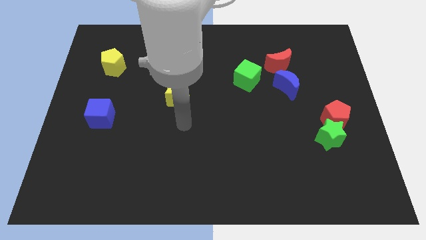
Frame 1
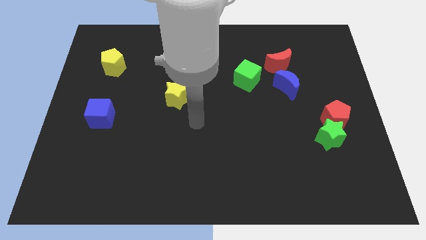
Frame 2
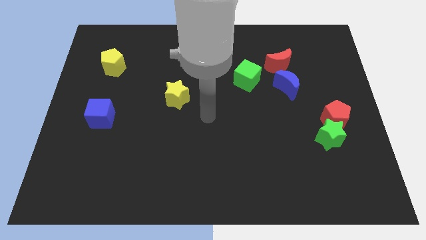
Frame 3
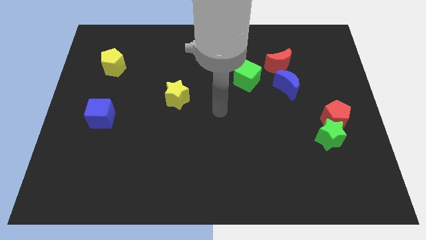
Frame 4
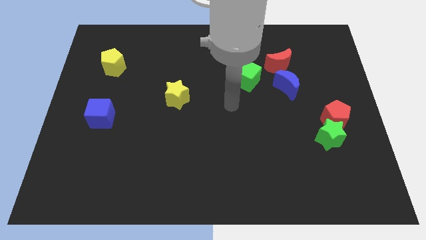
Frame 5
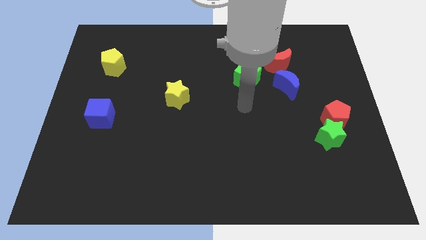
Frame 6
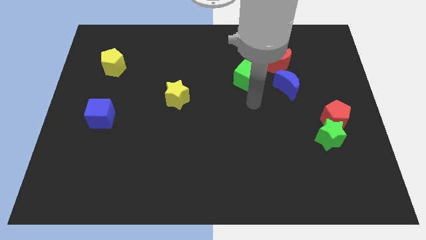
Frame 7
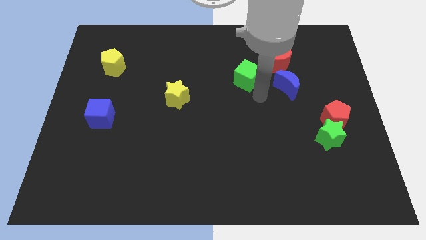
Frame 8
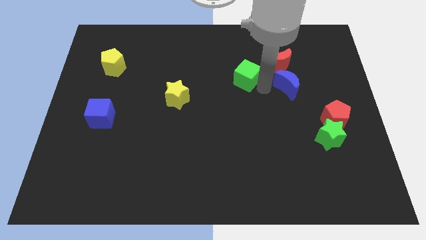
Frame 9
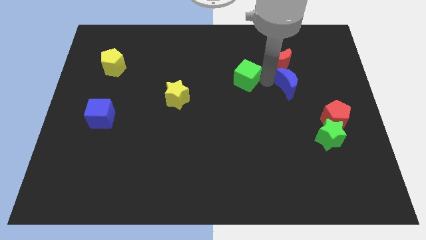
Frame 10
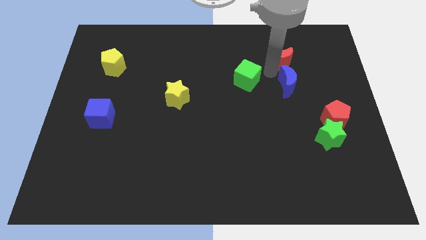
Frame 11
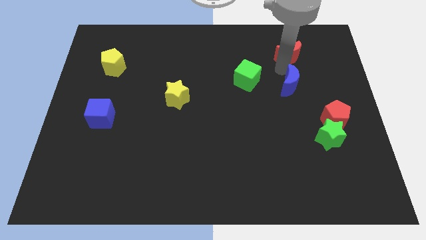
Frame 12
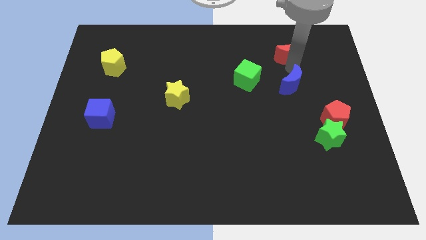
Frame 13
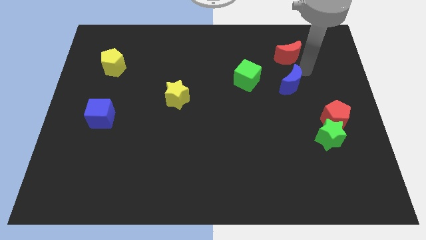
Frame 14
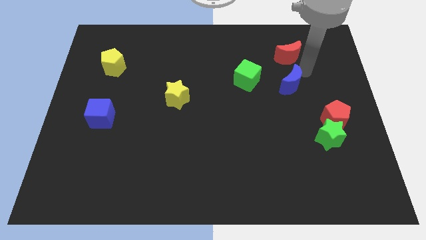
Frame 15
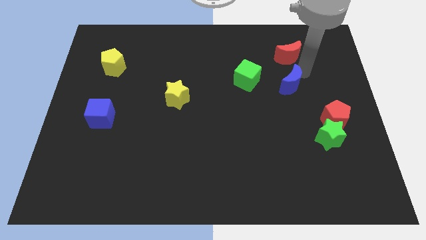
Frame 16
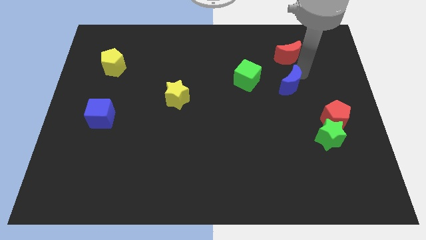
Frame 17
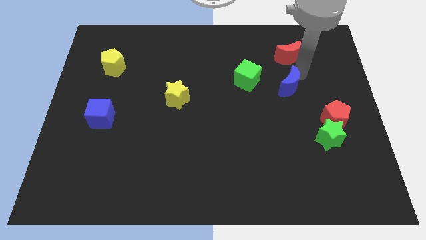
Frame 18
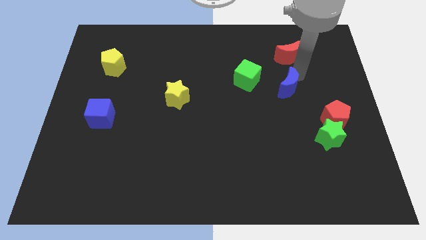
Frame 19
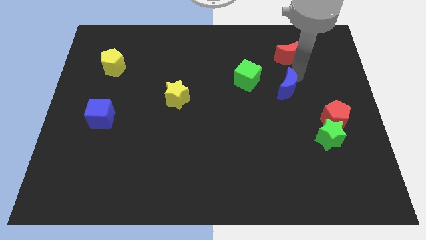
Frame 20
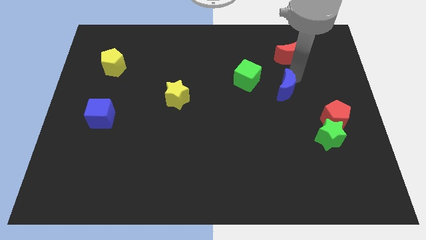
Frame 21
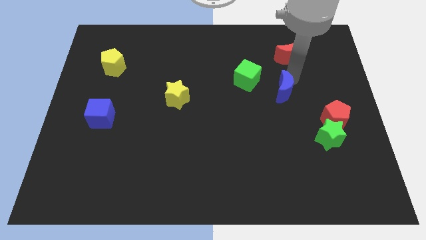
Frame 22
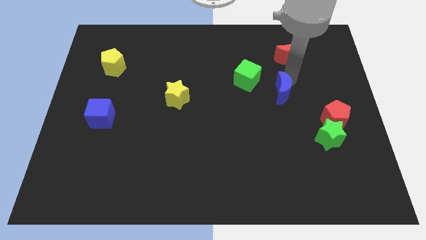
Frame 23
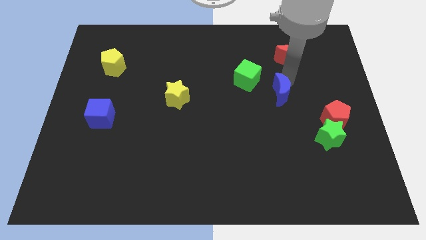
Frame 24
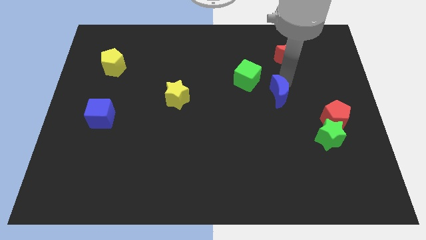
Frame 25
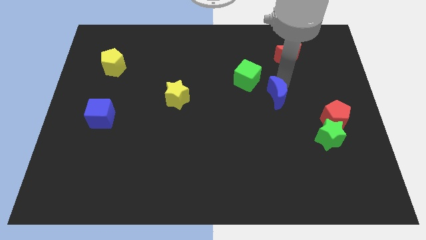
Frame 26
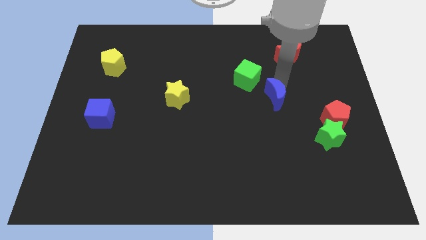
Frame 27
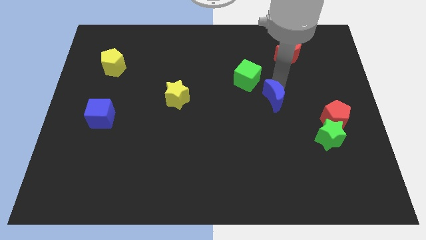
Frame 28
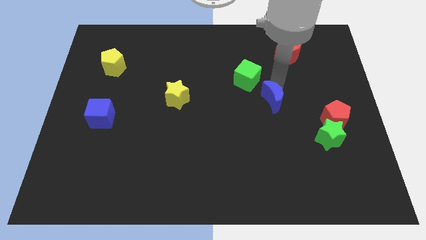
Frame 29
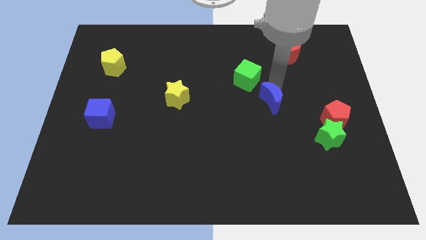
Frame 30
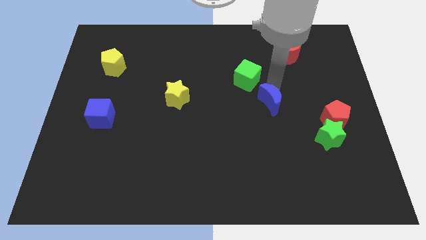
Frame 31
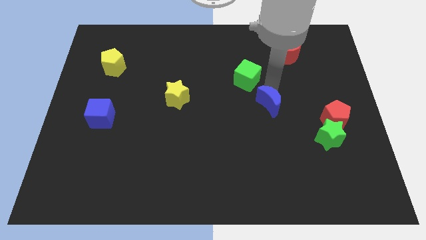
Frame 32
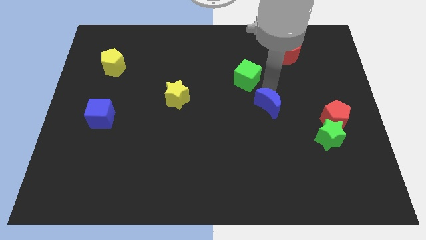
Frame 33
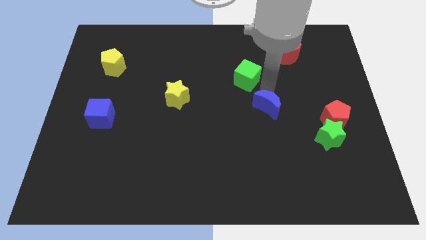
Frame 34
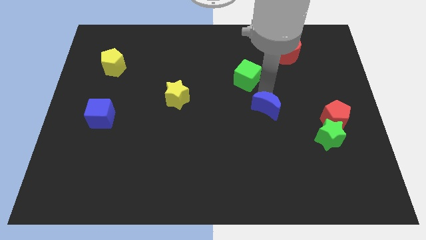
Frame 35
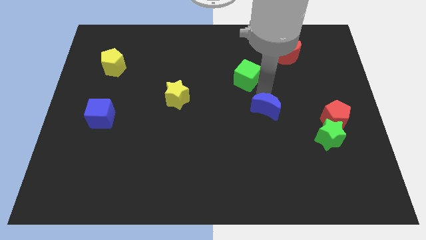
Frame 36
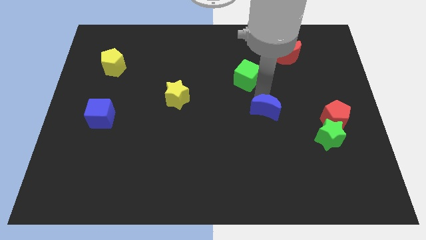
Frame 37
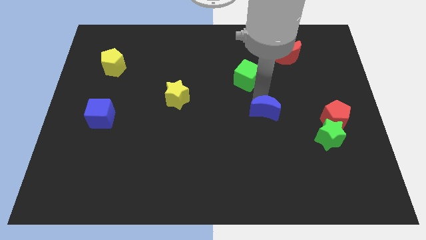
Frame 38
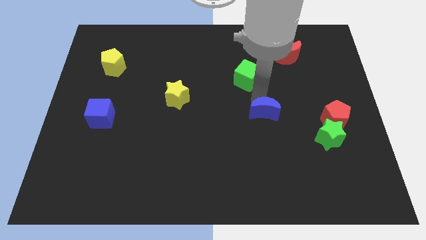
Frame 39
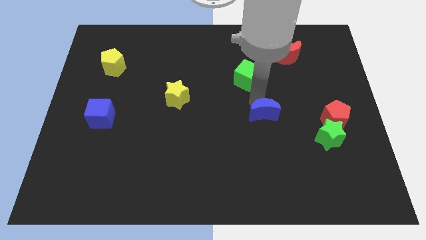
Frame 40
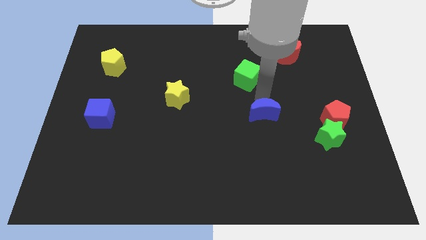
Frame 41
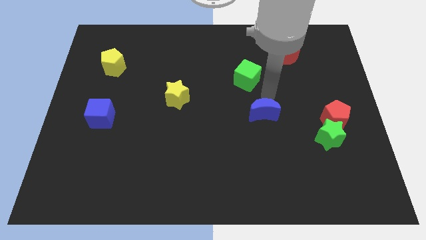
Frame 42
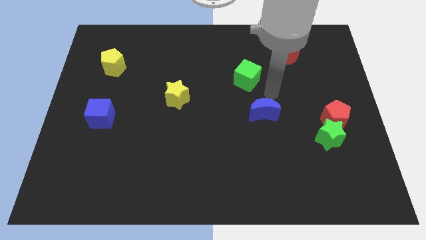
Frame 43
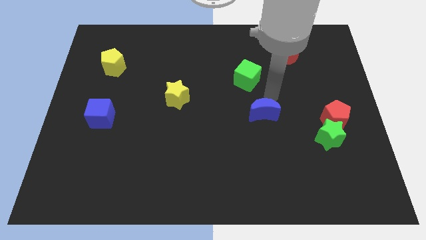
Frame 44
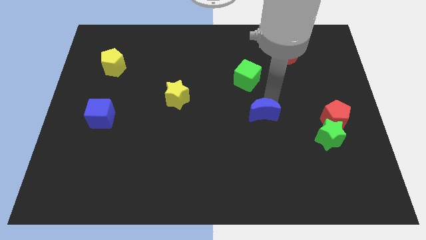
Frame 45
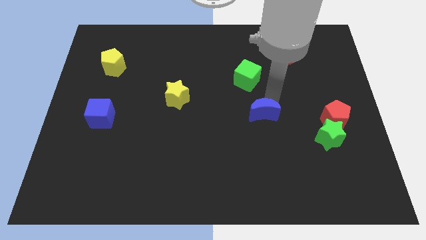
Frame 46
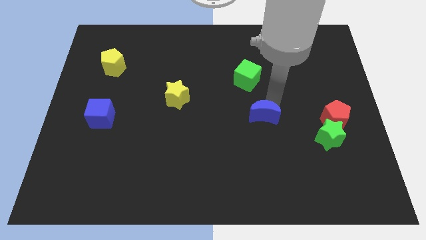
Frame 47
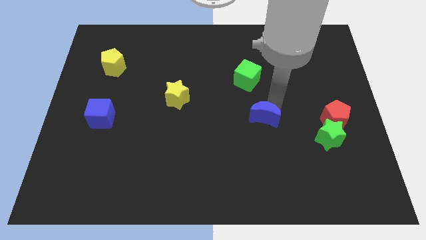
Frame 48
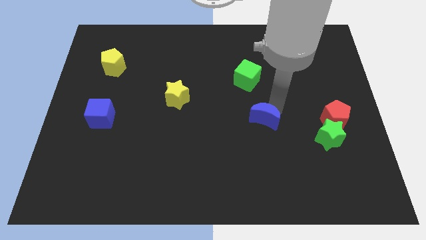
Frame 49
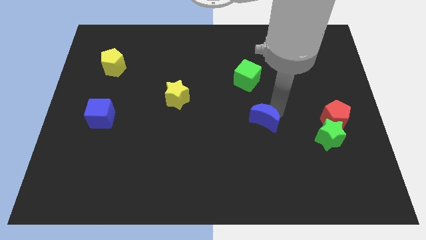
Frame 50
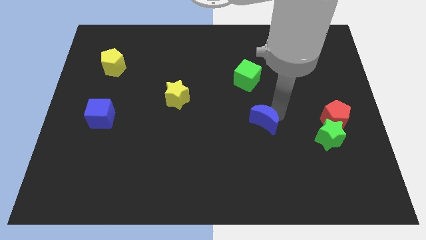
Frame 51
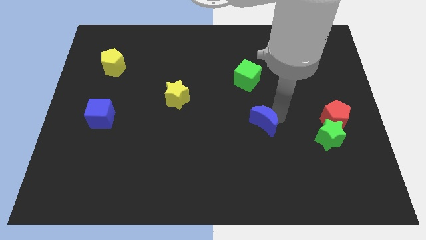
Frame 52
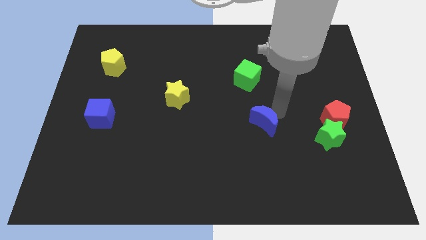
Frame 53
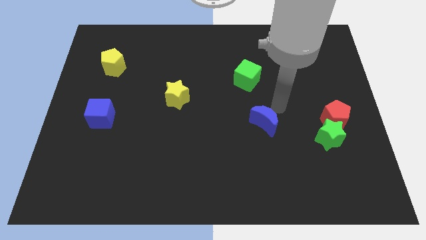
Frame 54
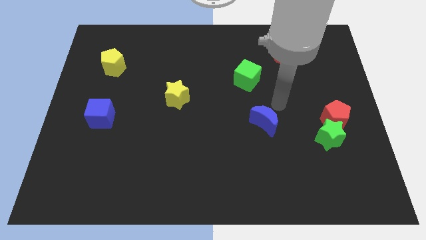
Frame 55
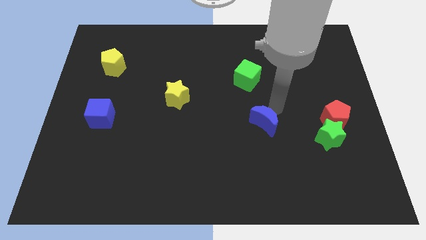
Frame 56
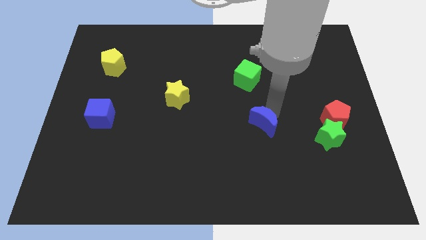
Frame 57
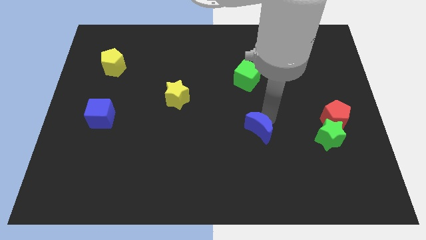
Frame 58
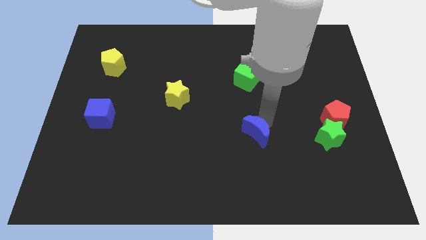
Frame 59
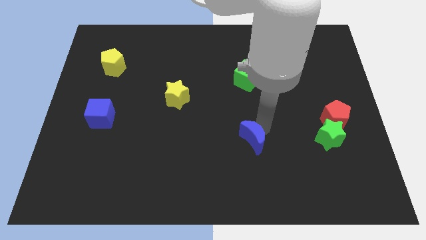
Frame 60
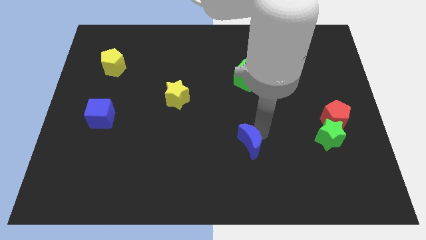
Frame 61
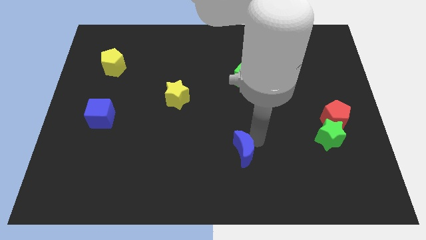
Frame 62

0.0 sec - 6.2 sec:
push the blue moon diagonally down and left

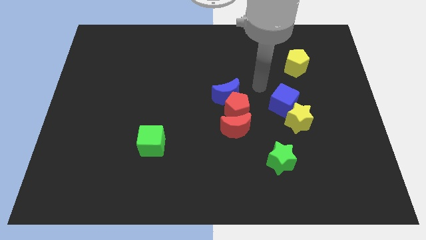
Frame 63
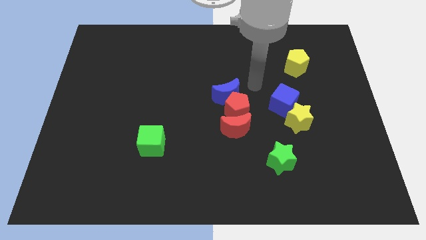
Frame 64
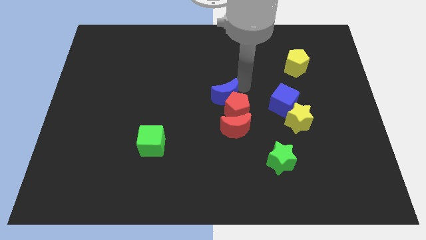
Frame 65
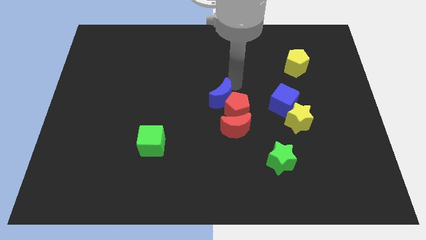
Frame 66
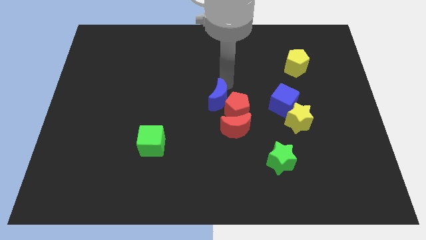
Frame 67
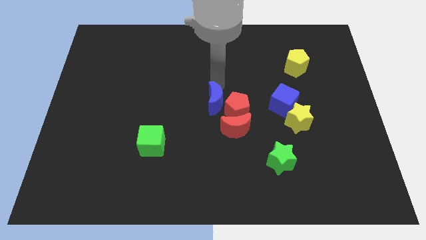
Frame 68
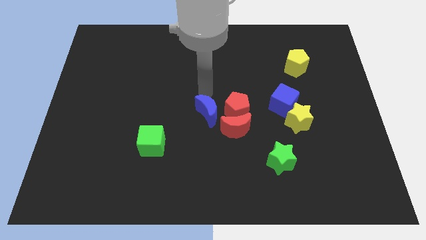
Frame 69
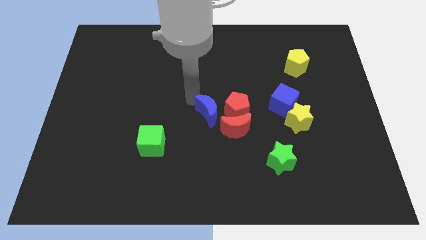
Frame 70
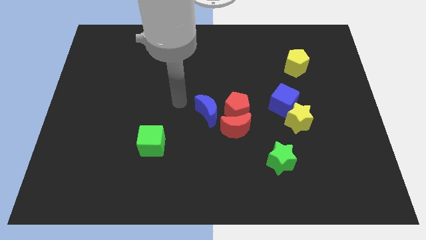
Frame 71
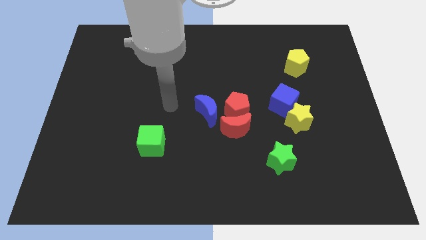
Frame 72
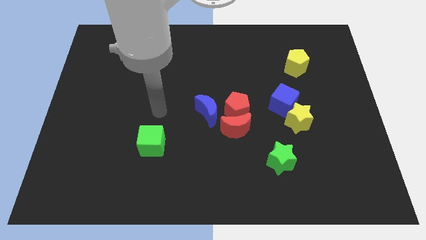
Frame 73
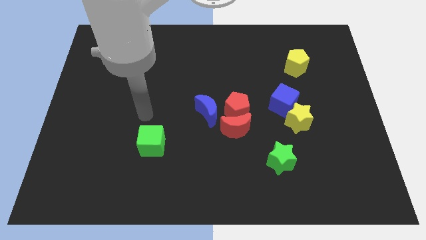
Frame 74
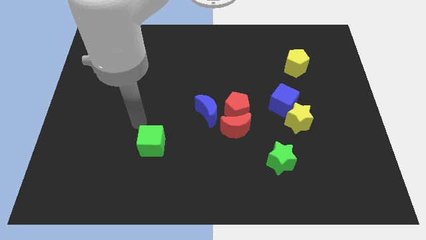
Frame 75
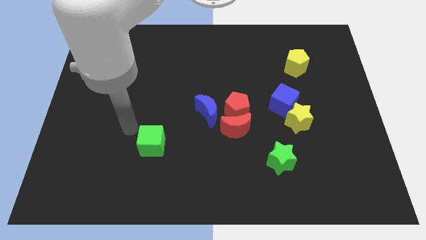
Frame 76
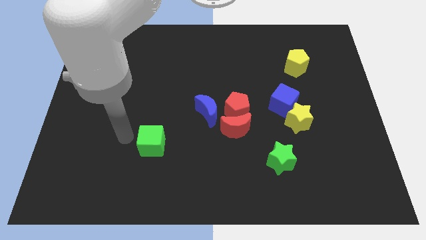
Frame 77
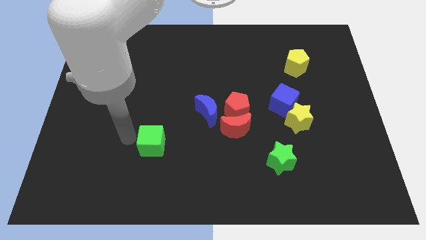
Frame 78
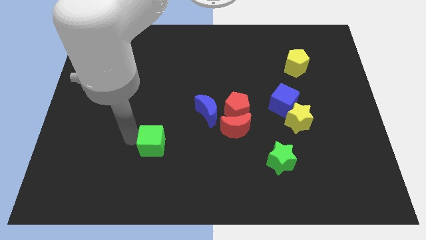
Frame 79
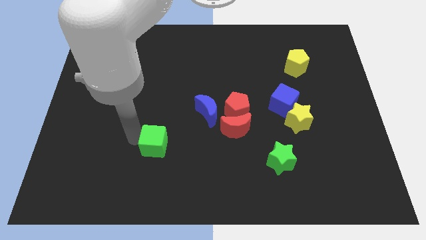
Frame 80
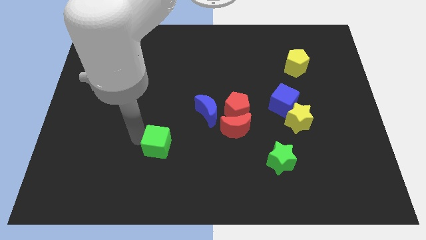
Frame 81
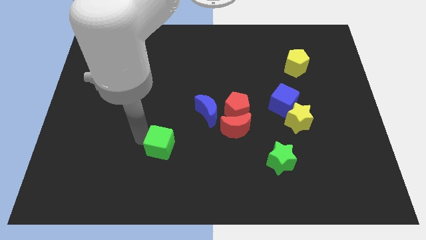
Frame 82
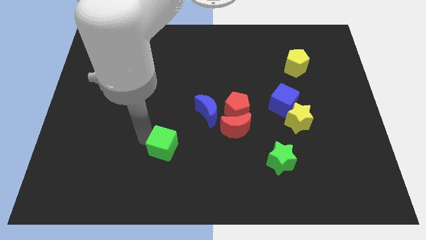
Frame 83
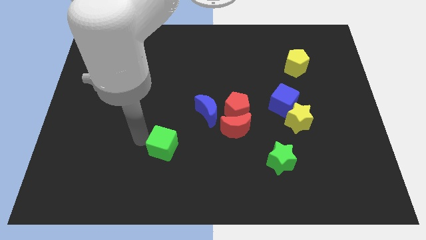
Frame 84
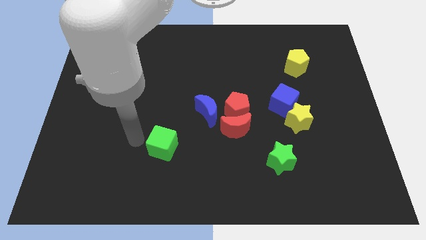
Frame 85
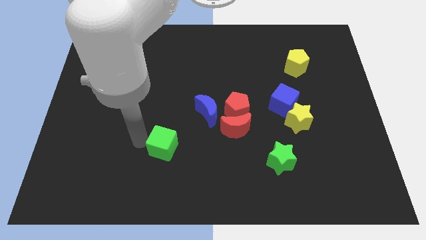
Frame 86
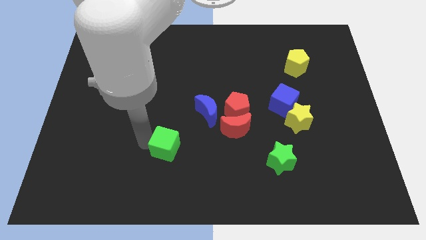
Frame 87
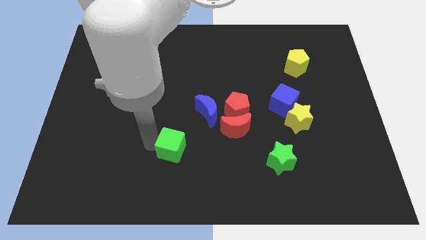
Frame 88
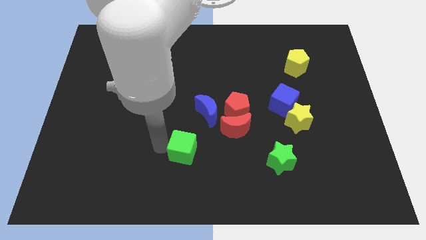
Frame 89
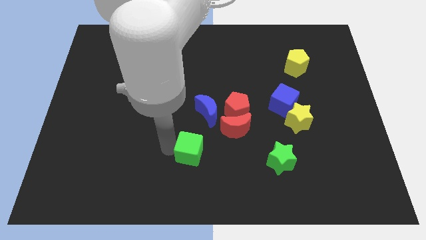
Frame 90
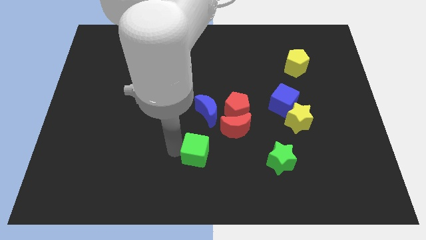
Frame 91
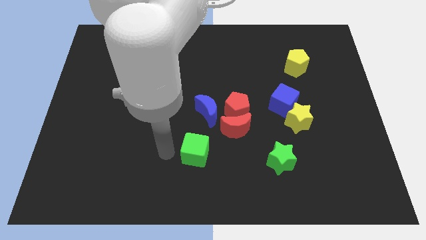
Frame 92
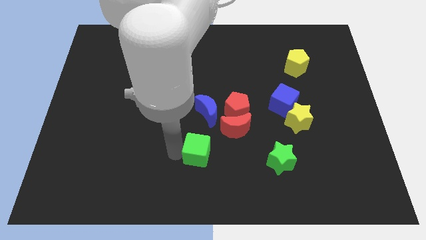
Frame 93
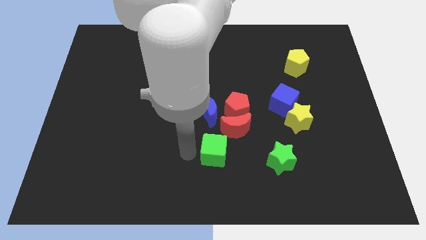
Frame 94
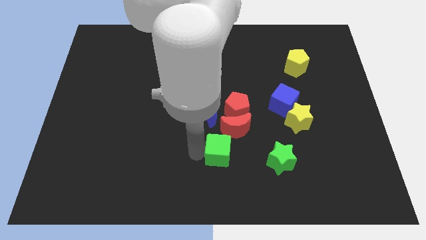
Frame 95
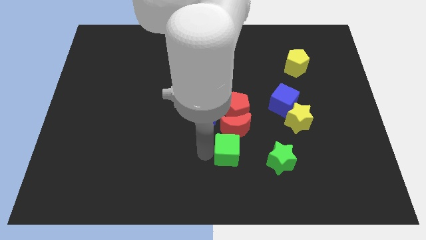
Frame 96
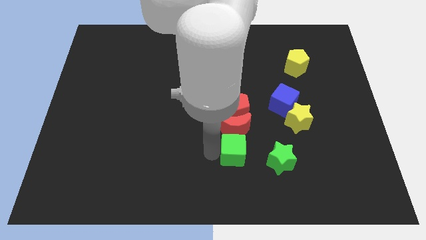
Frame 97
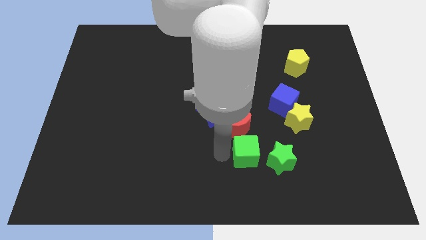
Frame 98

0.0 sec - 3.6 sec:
move the green cube to the right
